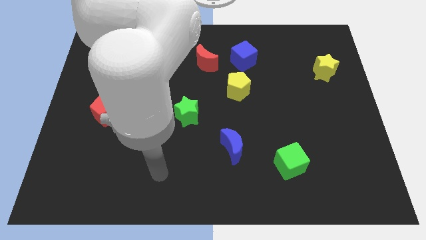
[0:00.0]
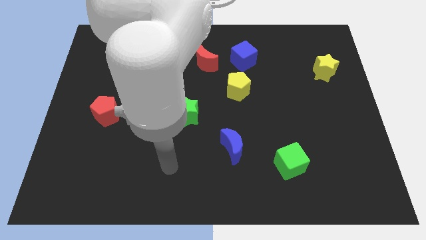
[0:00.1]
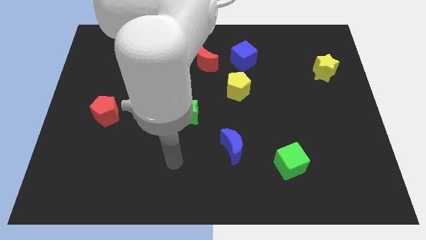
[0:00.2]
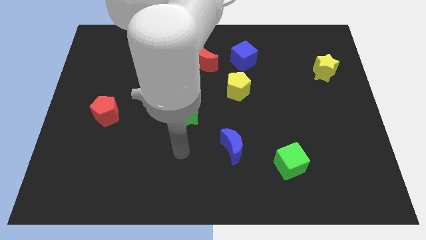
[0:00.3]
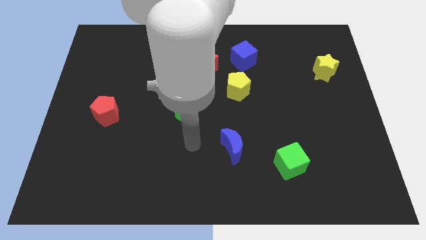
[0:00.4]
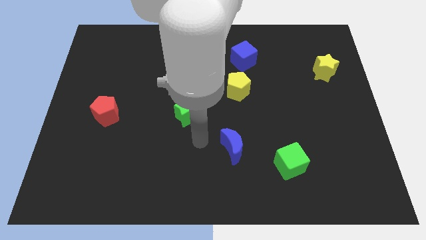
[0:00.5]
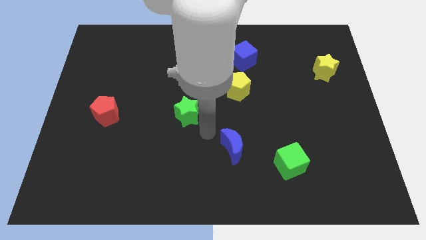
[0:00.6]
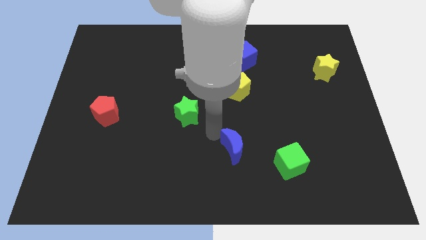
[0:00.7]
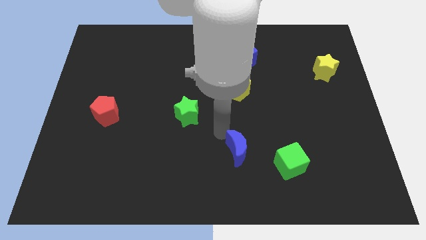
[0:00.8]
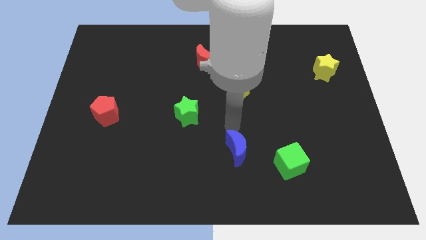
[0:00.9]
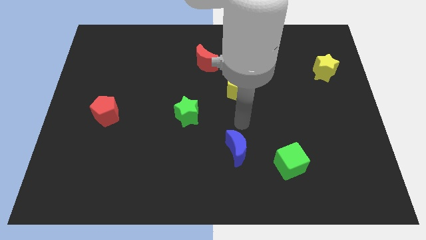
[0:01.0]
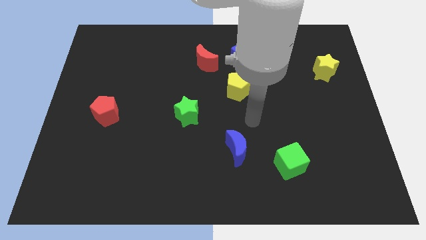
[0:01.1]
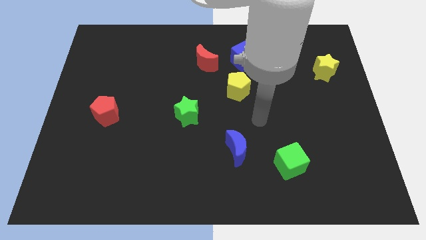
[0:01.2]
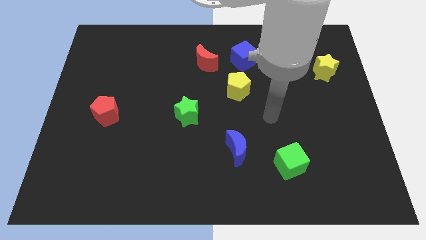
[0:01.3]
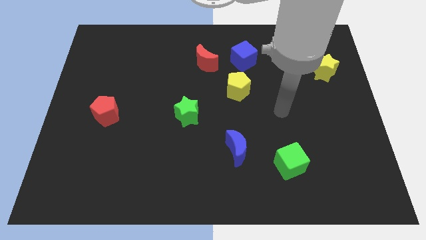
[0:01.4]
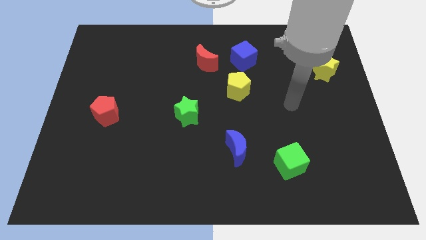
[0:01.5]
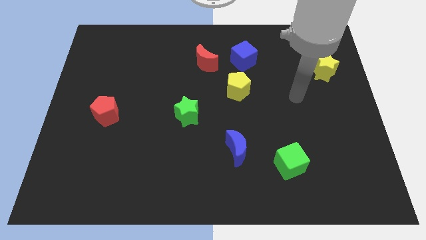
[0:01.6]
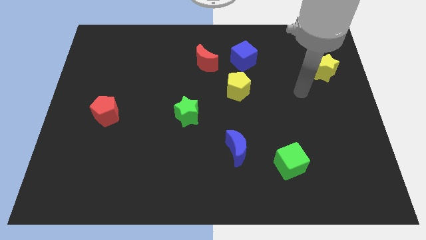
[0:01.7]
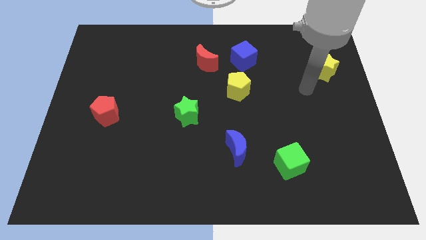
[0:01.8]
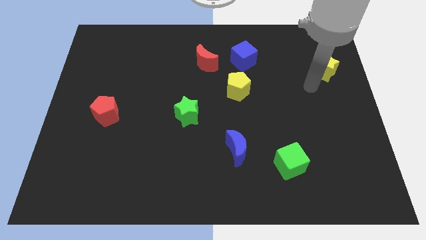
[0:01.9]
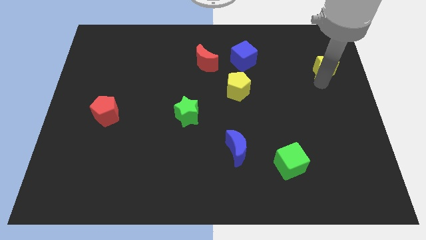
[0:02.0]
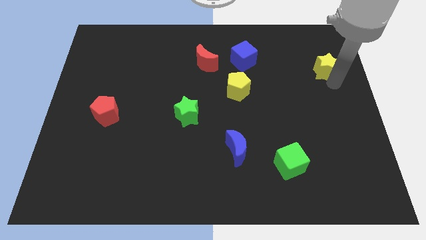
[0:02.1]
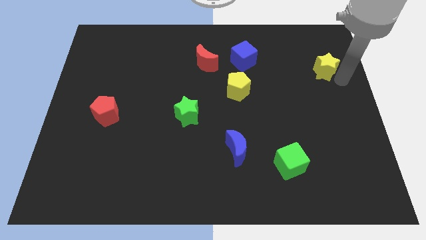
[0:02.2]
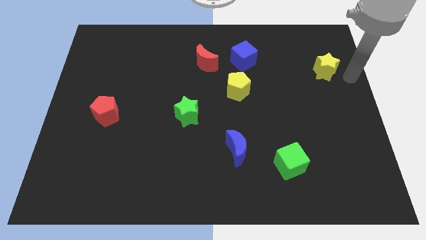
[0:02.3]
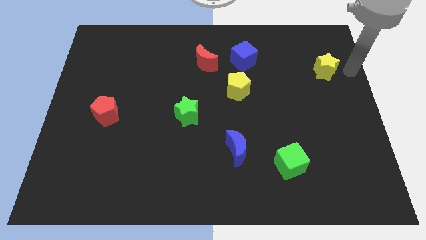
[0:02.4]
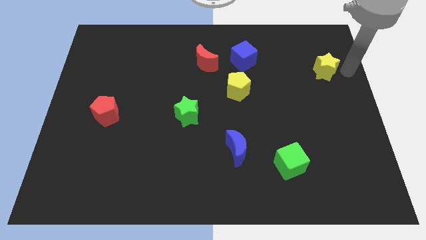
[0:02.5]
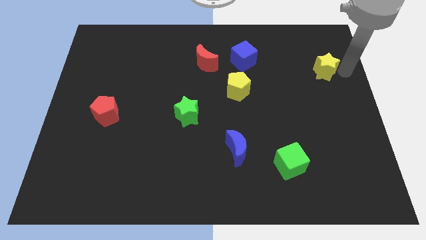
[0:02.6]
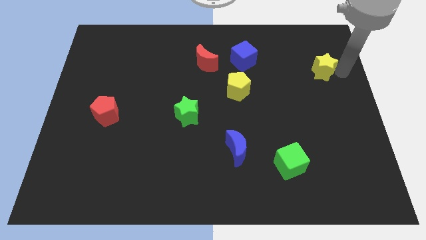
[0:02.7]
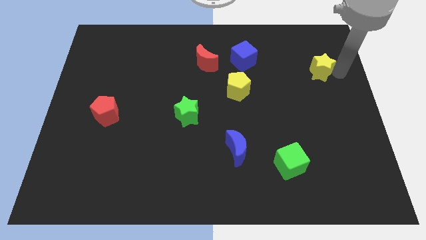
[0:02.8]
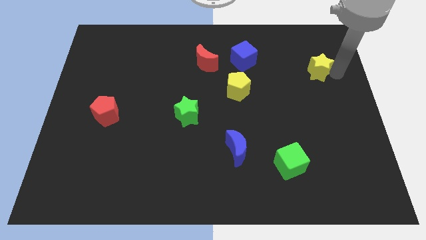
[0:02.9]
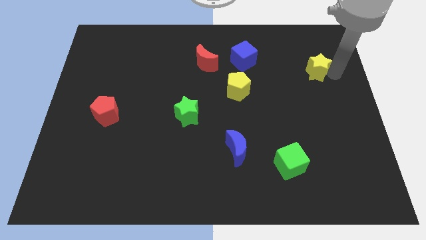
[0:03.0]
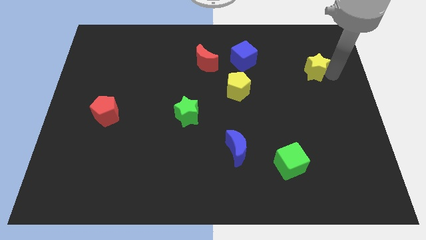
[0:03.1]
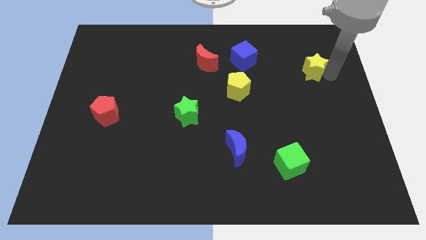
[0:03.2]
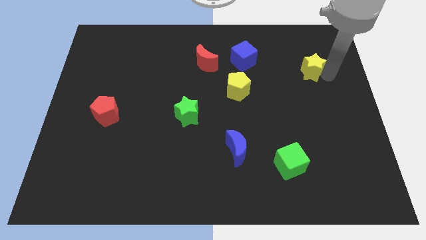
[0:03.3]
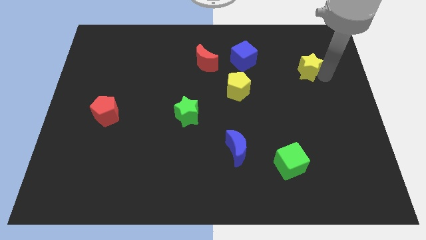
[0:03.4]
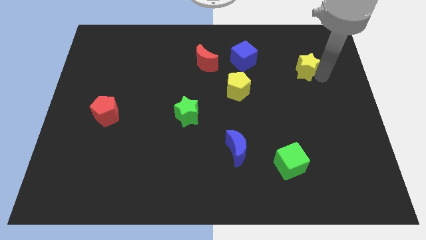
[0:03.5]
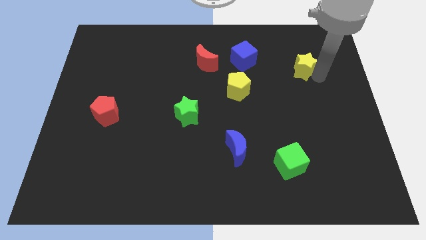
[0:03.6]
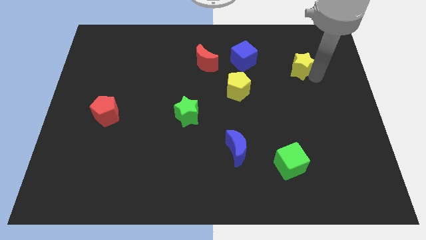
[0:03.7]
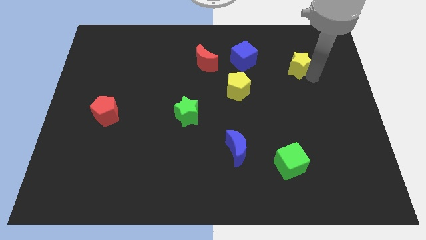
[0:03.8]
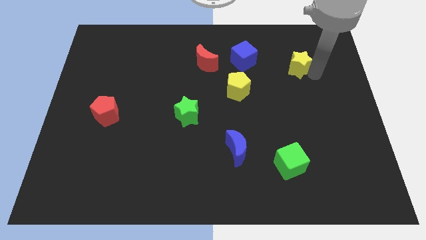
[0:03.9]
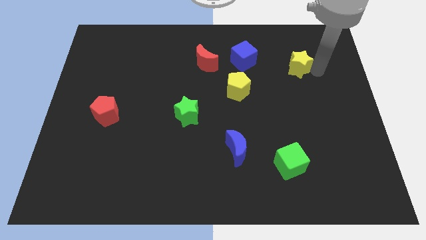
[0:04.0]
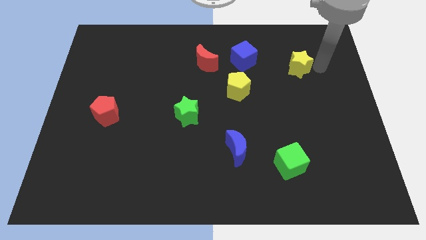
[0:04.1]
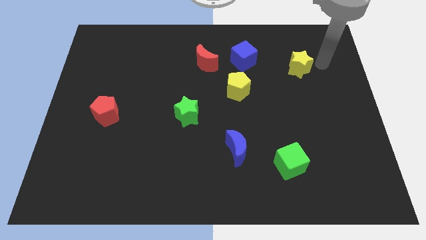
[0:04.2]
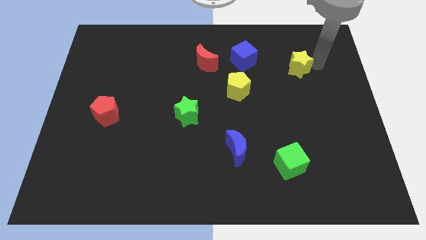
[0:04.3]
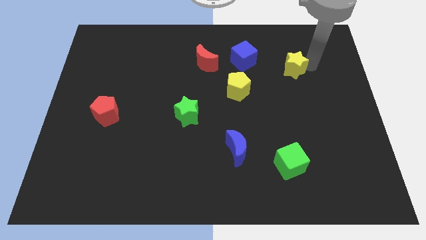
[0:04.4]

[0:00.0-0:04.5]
push the yellow star somewhat to the left

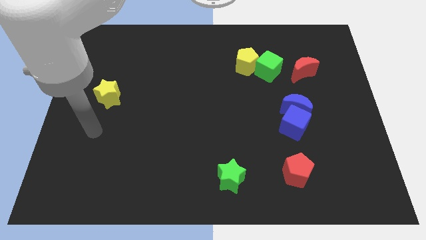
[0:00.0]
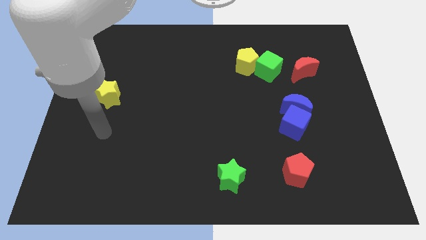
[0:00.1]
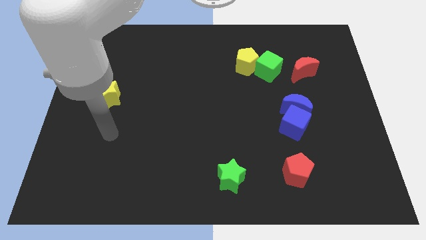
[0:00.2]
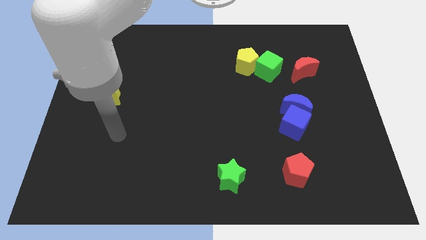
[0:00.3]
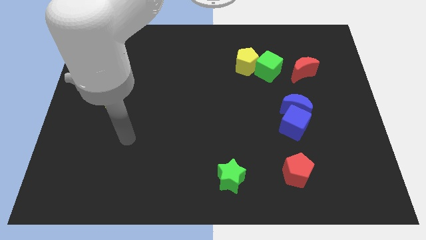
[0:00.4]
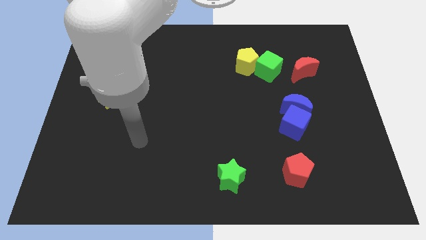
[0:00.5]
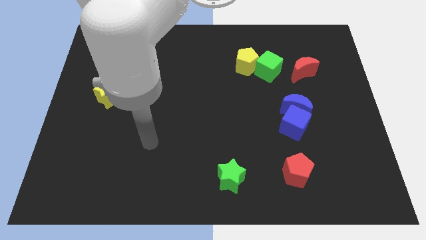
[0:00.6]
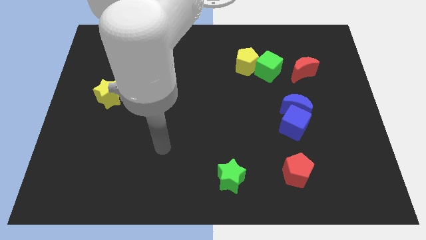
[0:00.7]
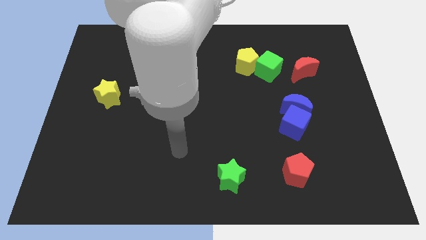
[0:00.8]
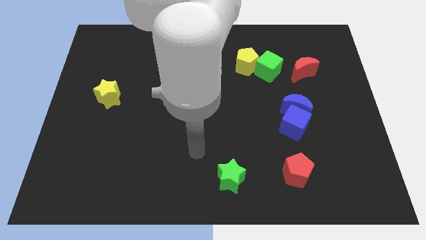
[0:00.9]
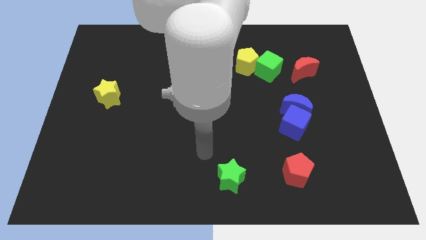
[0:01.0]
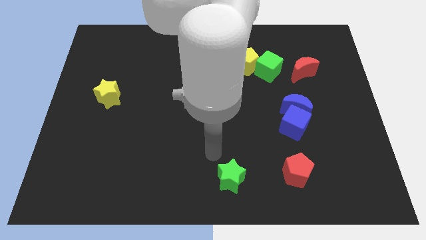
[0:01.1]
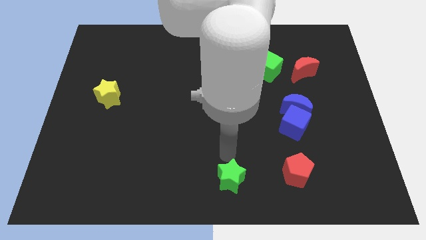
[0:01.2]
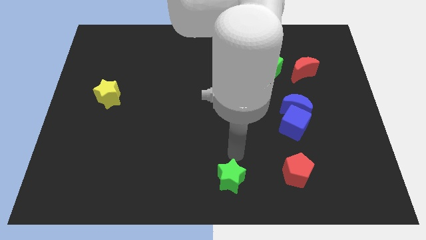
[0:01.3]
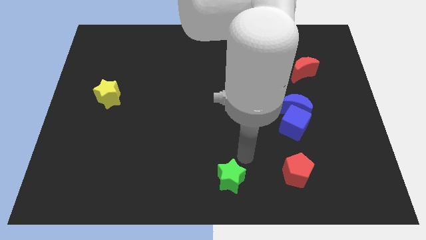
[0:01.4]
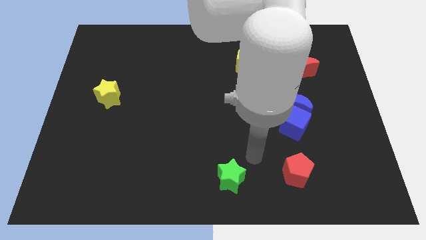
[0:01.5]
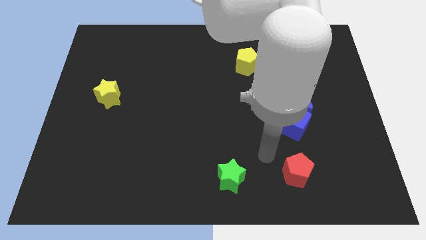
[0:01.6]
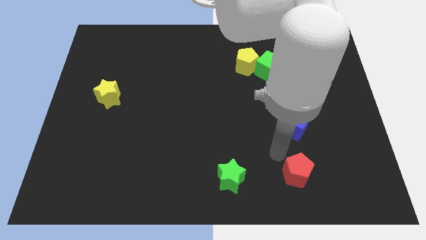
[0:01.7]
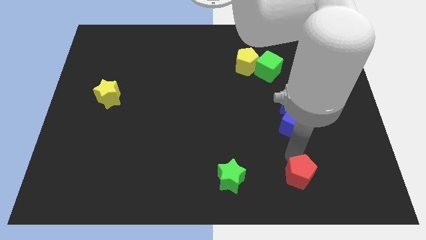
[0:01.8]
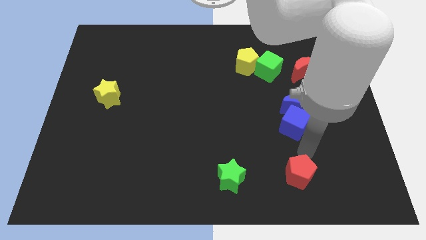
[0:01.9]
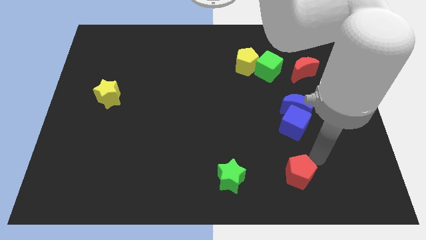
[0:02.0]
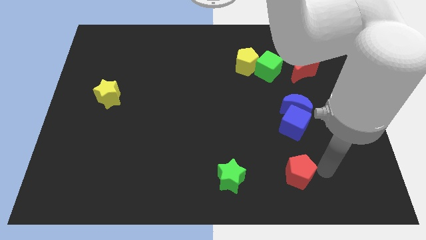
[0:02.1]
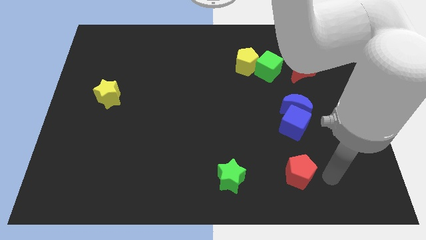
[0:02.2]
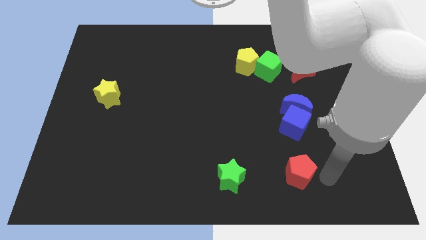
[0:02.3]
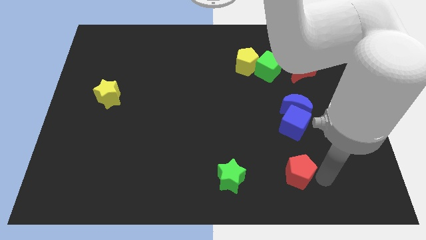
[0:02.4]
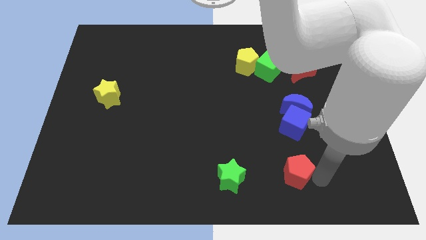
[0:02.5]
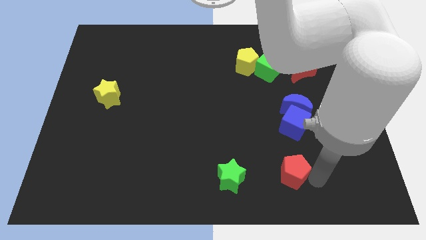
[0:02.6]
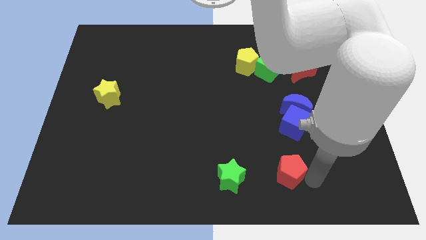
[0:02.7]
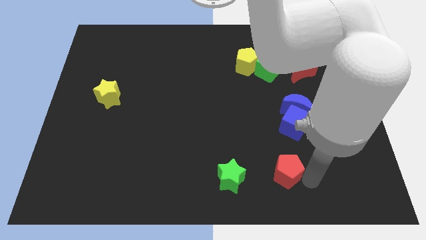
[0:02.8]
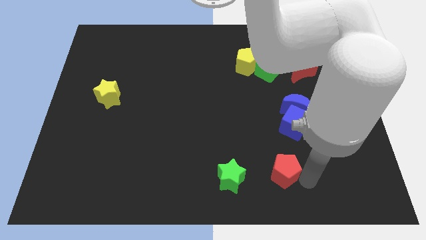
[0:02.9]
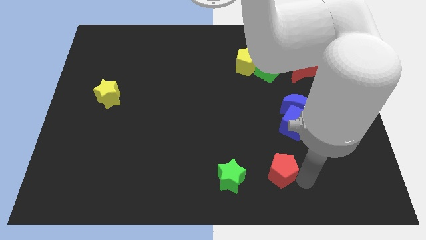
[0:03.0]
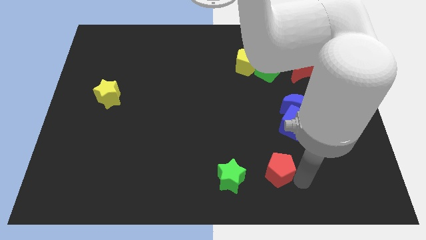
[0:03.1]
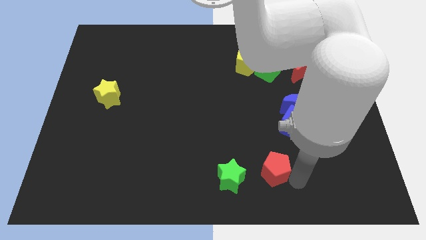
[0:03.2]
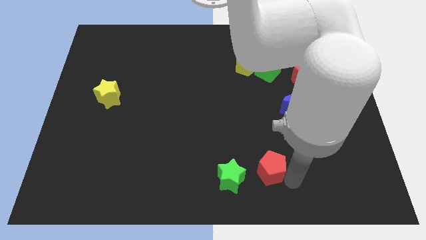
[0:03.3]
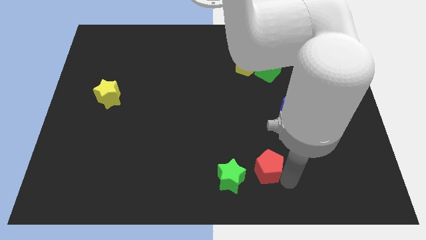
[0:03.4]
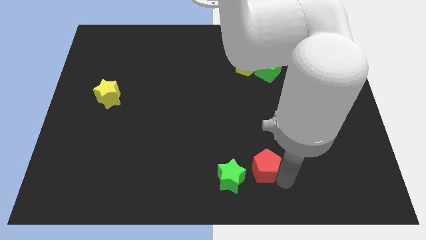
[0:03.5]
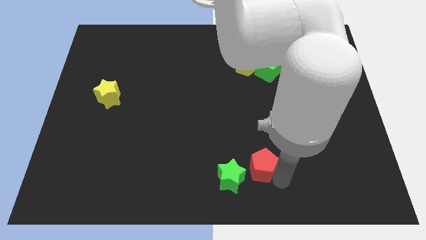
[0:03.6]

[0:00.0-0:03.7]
slightly push the red pentagon left
